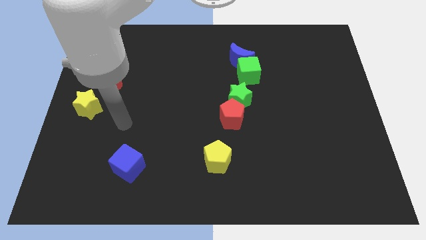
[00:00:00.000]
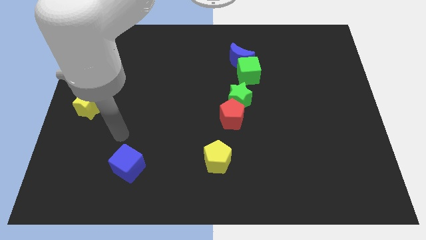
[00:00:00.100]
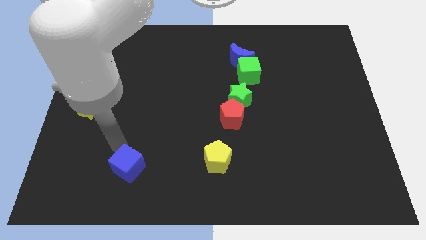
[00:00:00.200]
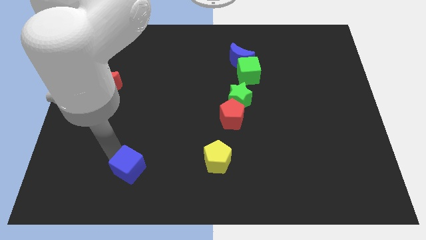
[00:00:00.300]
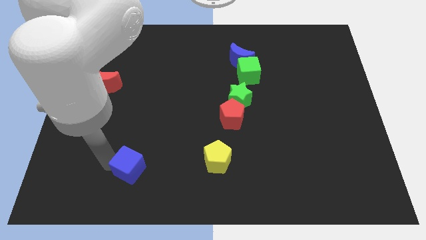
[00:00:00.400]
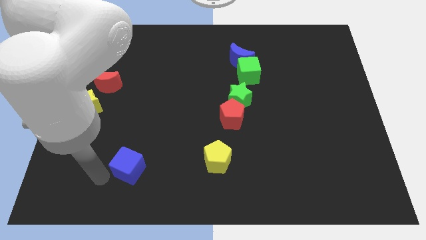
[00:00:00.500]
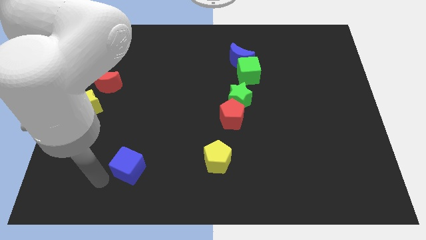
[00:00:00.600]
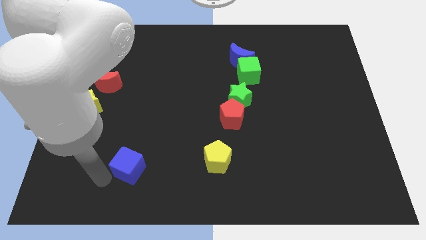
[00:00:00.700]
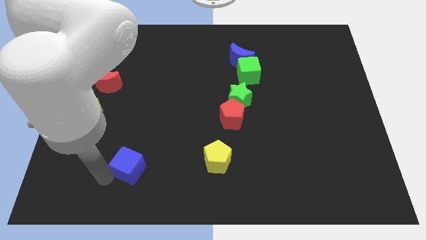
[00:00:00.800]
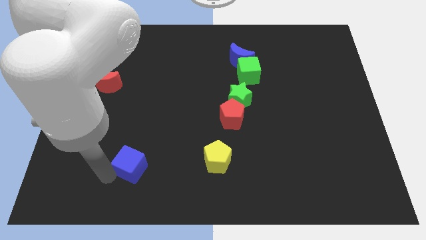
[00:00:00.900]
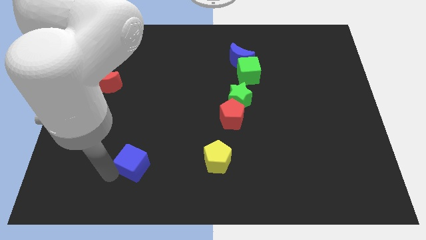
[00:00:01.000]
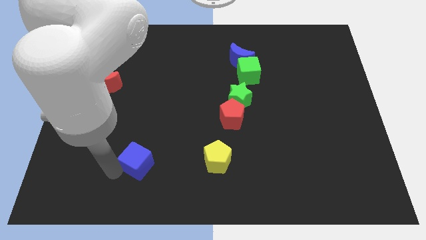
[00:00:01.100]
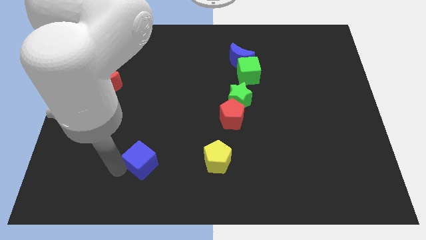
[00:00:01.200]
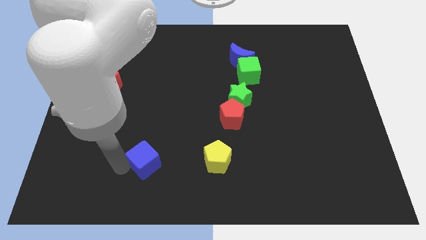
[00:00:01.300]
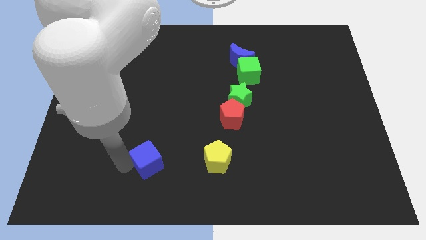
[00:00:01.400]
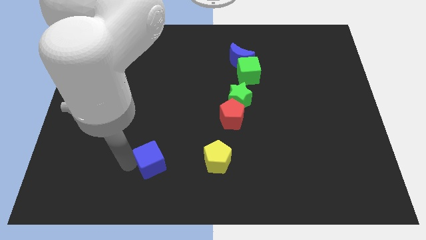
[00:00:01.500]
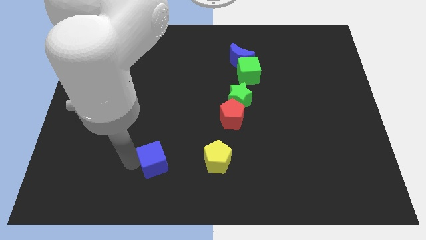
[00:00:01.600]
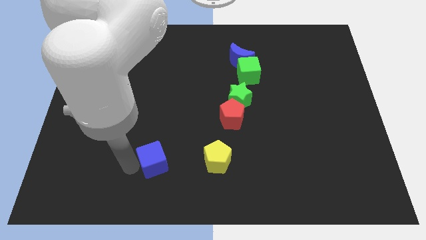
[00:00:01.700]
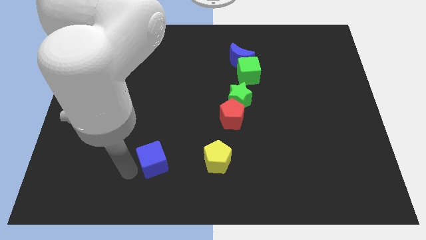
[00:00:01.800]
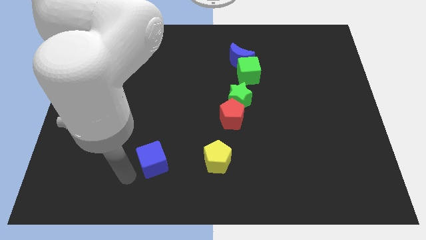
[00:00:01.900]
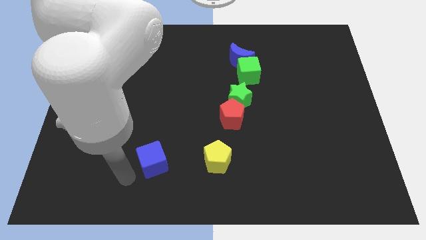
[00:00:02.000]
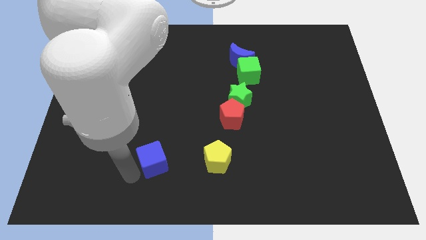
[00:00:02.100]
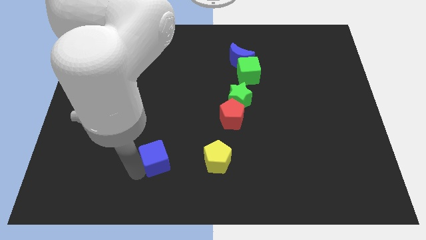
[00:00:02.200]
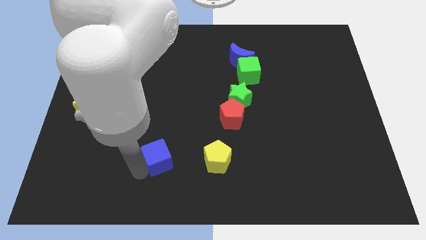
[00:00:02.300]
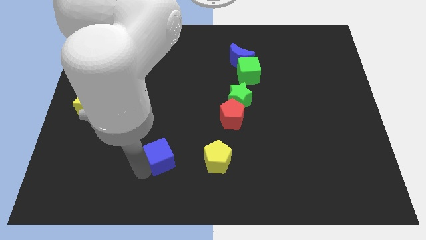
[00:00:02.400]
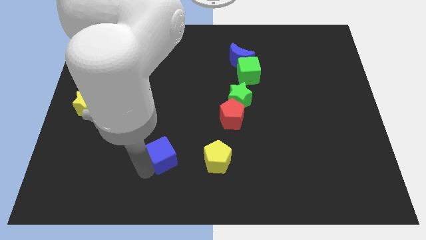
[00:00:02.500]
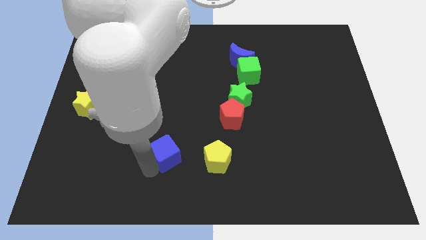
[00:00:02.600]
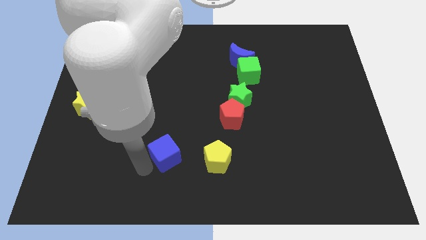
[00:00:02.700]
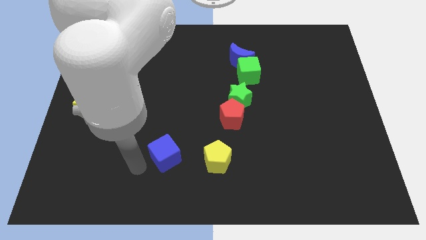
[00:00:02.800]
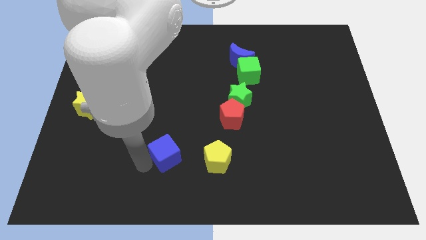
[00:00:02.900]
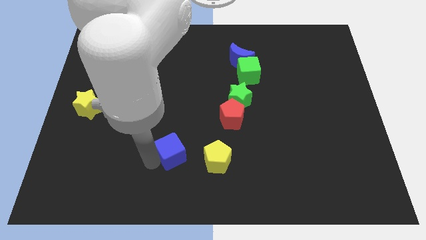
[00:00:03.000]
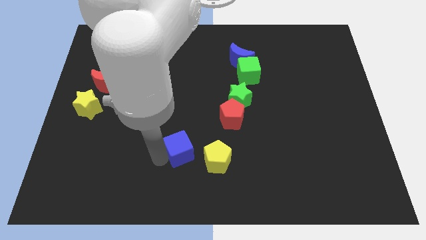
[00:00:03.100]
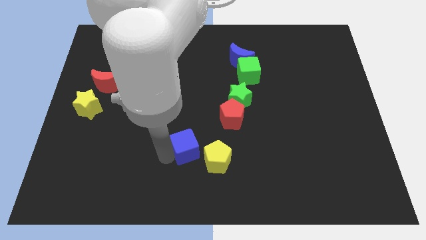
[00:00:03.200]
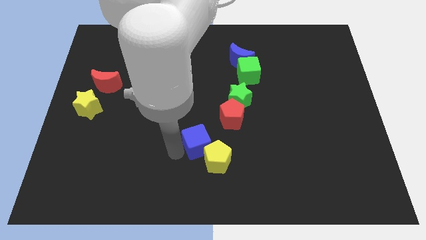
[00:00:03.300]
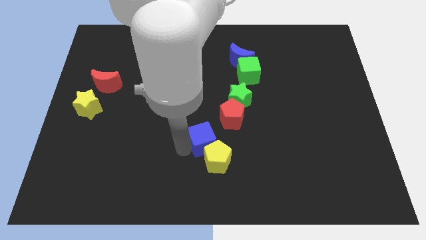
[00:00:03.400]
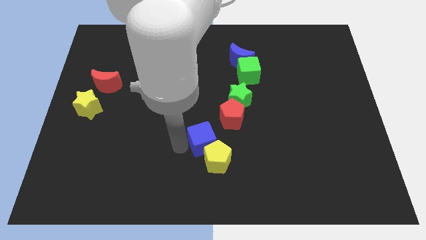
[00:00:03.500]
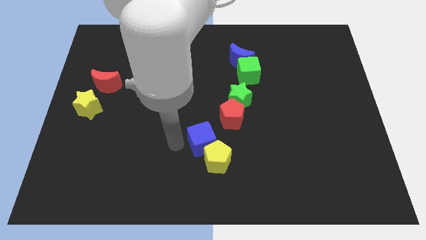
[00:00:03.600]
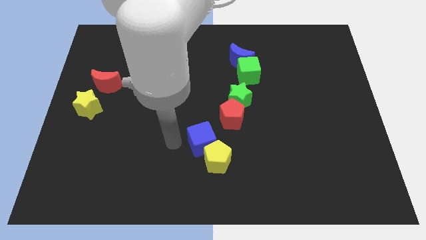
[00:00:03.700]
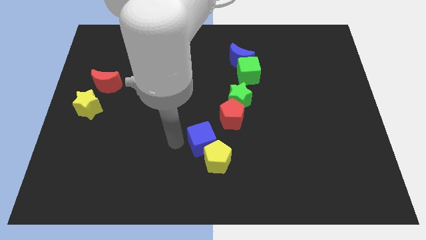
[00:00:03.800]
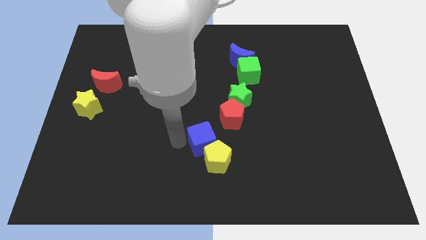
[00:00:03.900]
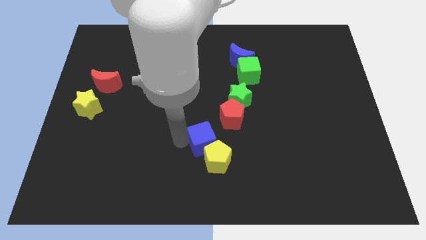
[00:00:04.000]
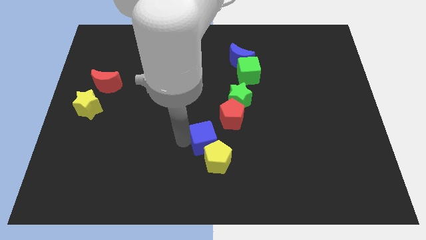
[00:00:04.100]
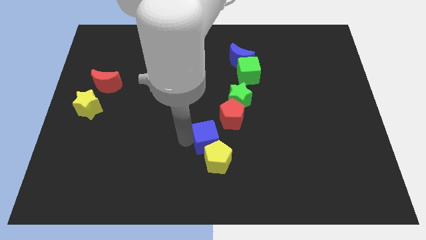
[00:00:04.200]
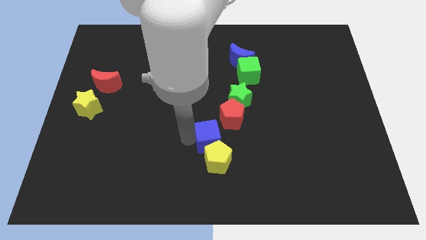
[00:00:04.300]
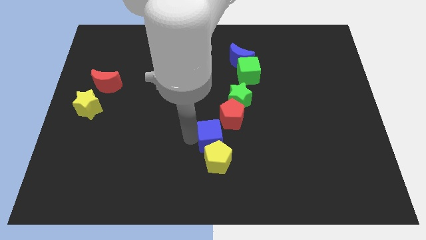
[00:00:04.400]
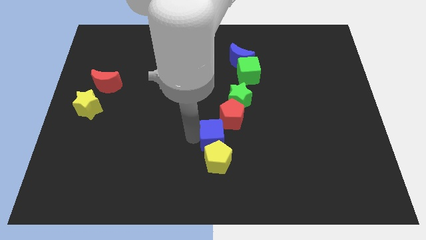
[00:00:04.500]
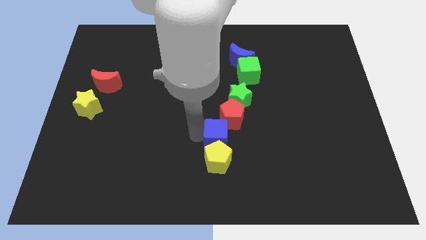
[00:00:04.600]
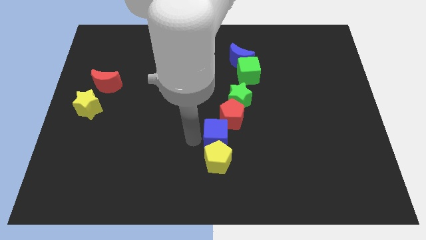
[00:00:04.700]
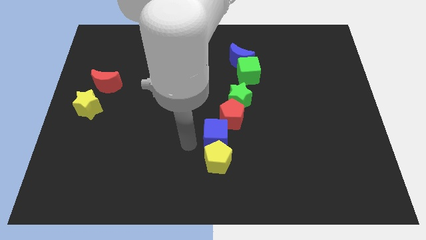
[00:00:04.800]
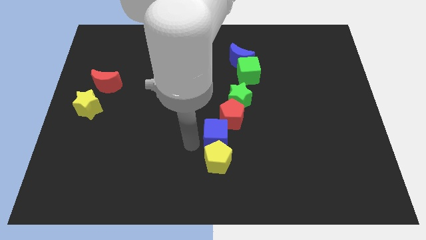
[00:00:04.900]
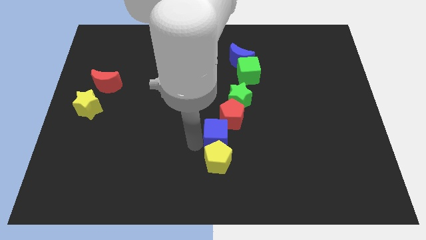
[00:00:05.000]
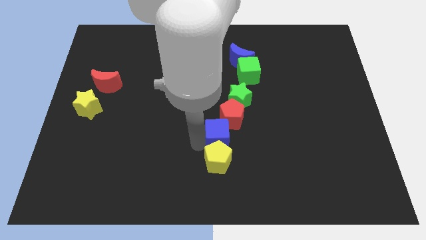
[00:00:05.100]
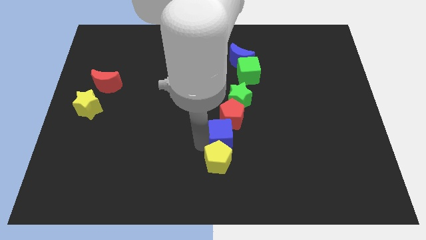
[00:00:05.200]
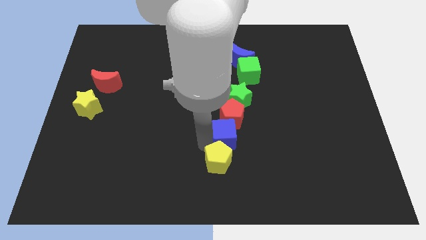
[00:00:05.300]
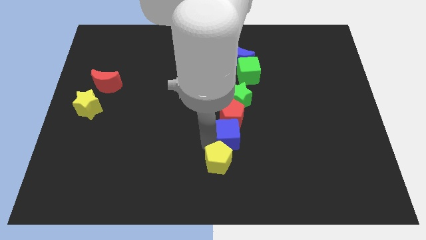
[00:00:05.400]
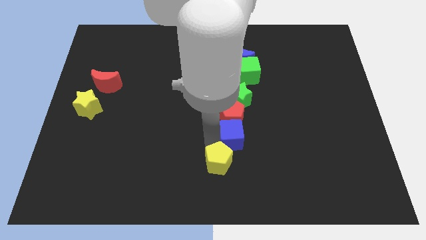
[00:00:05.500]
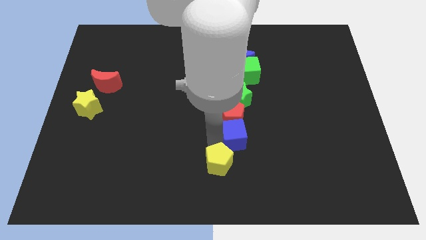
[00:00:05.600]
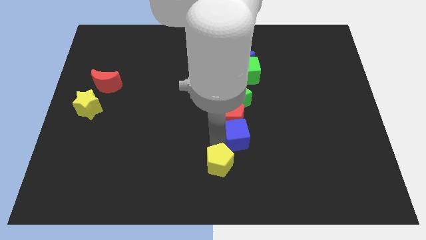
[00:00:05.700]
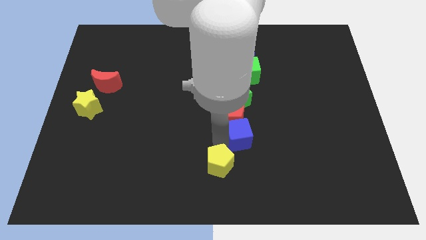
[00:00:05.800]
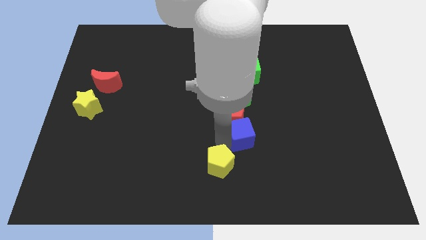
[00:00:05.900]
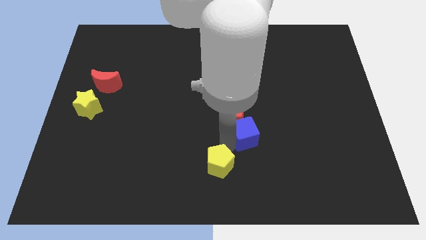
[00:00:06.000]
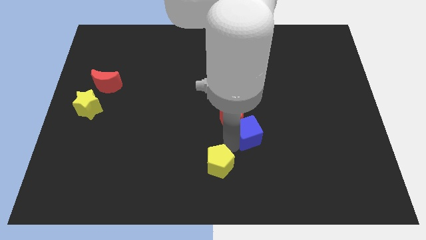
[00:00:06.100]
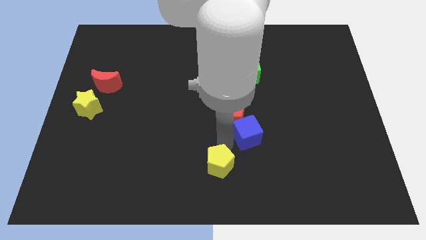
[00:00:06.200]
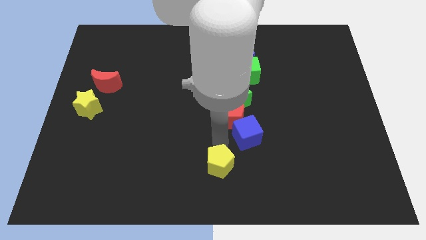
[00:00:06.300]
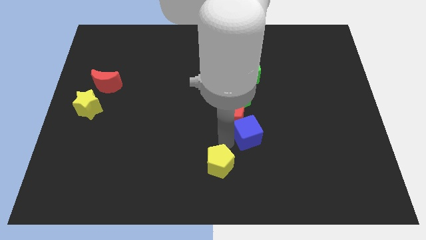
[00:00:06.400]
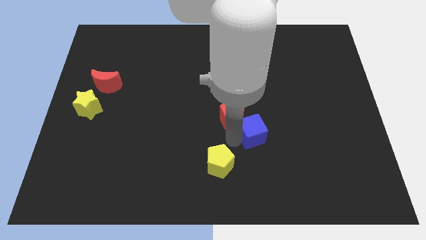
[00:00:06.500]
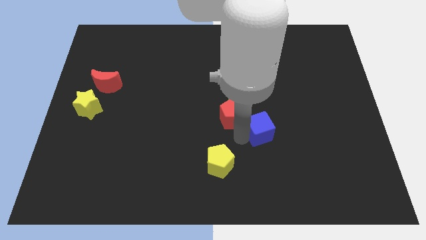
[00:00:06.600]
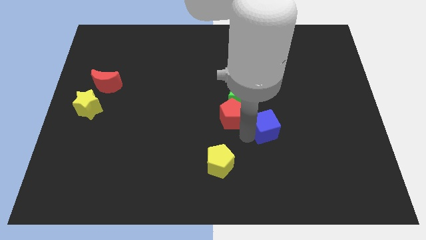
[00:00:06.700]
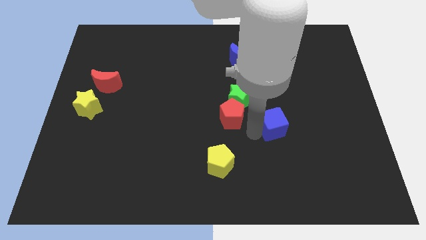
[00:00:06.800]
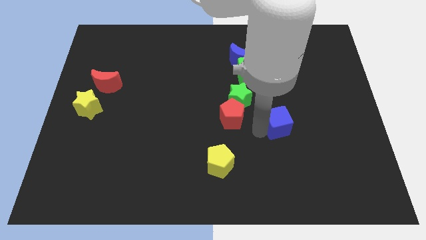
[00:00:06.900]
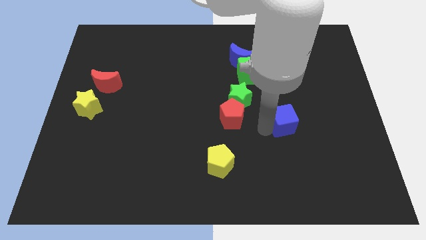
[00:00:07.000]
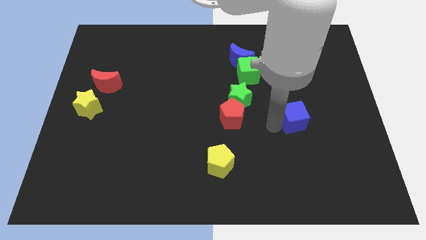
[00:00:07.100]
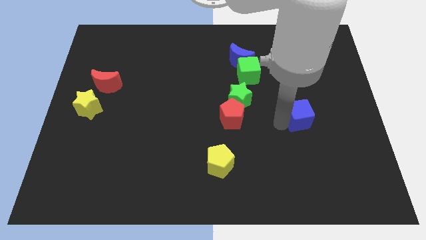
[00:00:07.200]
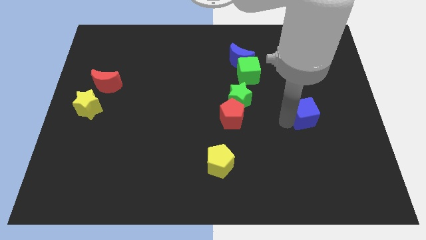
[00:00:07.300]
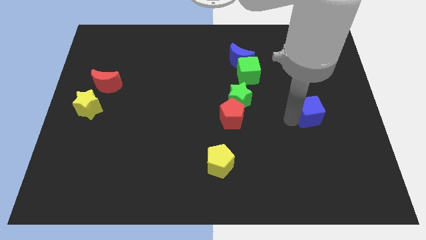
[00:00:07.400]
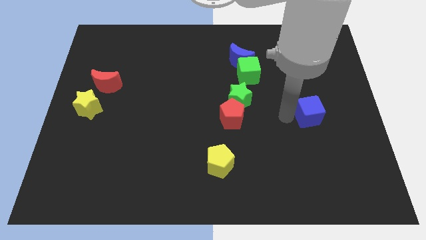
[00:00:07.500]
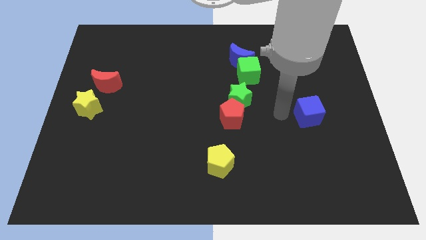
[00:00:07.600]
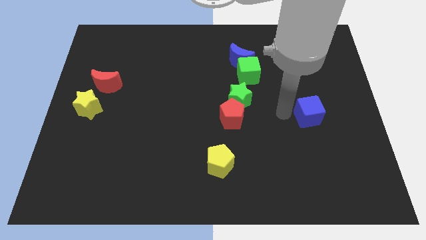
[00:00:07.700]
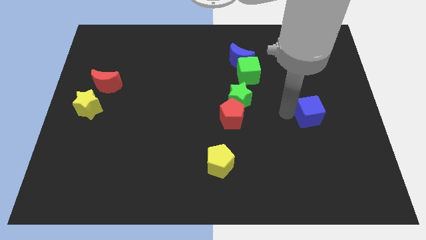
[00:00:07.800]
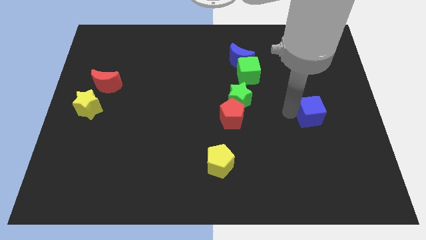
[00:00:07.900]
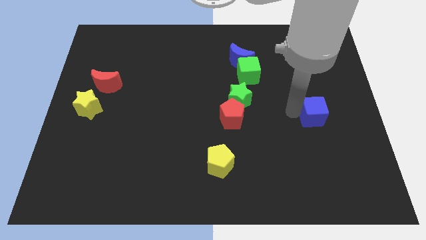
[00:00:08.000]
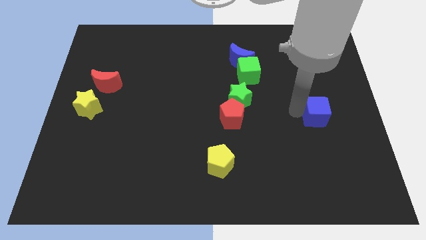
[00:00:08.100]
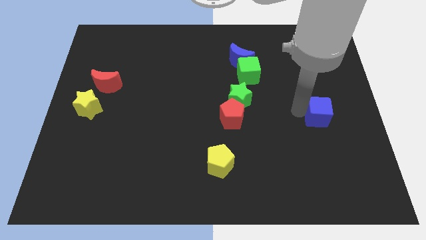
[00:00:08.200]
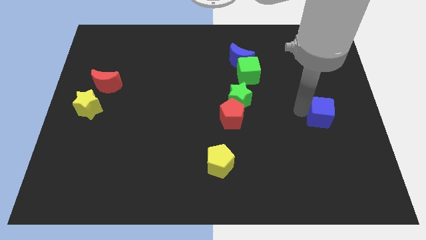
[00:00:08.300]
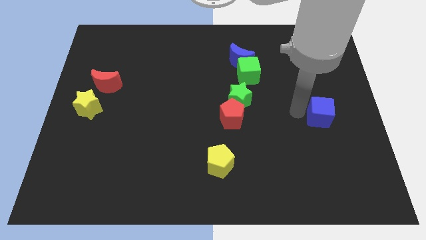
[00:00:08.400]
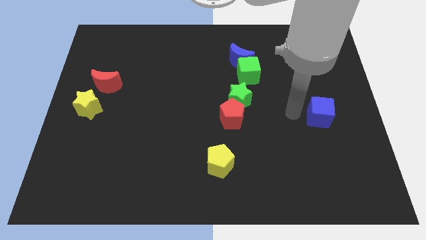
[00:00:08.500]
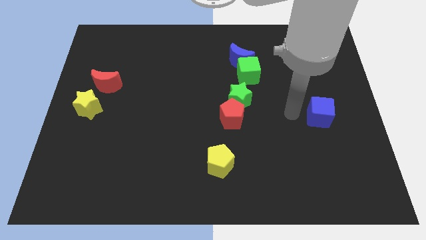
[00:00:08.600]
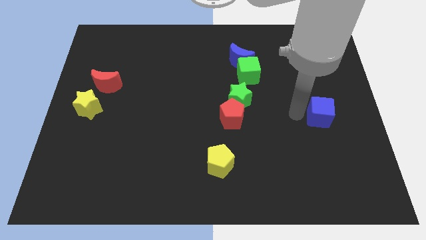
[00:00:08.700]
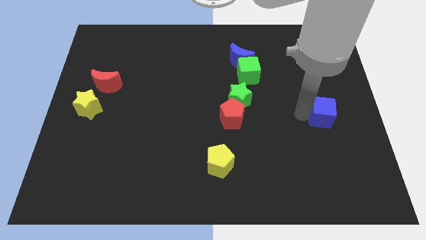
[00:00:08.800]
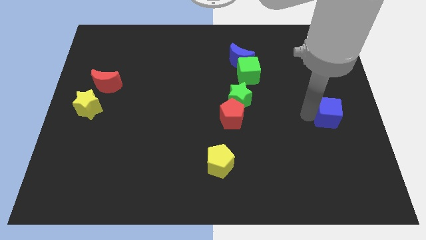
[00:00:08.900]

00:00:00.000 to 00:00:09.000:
move the blue cube to the center right
